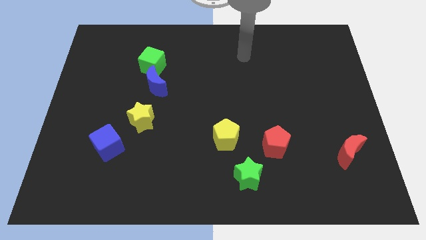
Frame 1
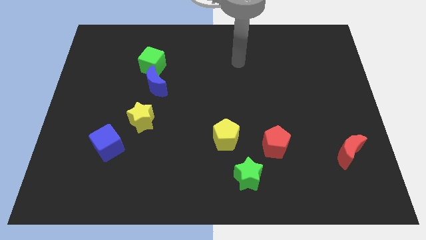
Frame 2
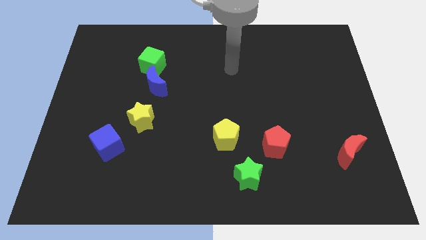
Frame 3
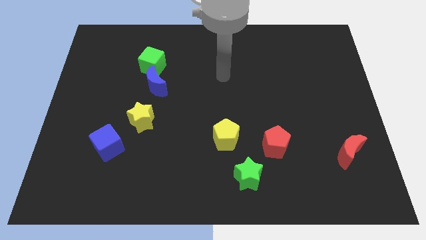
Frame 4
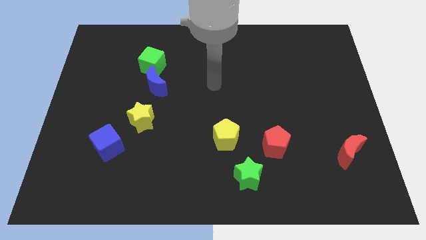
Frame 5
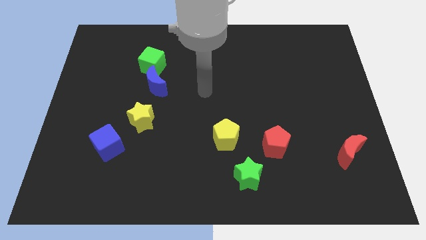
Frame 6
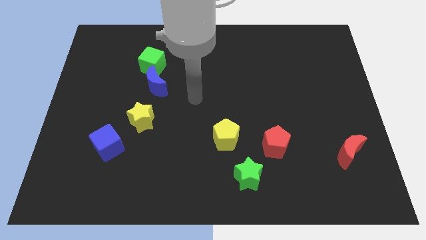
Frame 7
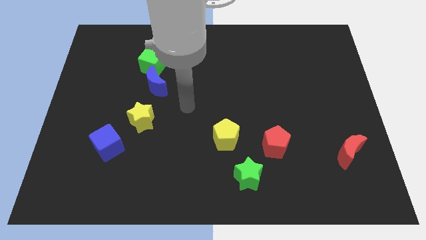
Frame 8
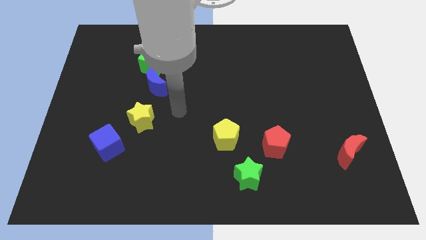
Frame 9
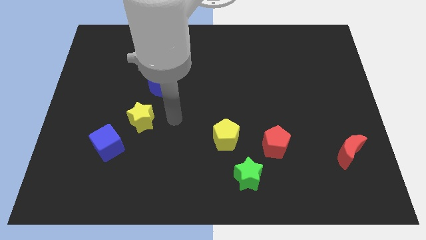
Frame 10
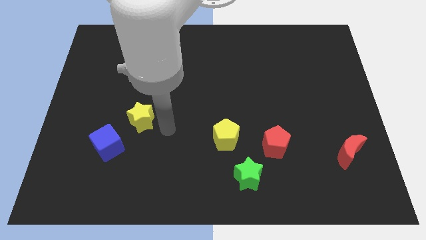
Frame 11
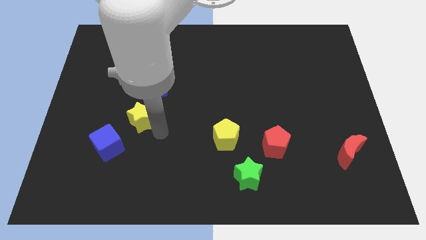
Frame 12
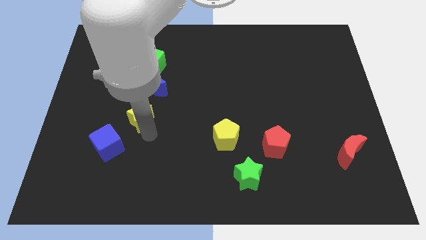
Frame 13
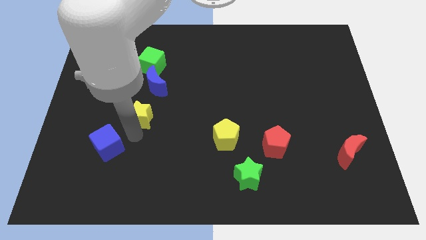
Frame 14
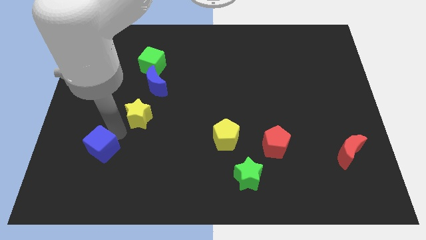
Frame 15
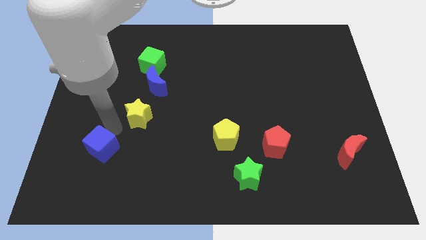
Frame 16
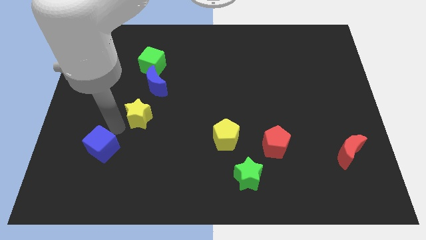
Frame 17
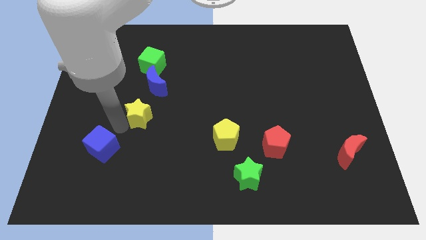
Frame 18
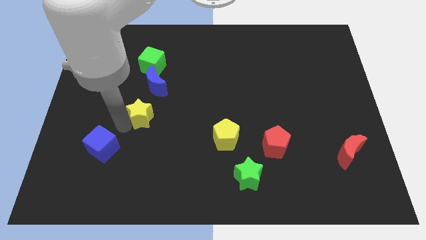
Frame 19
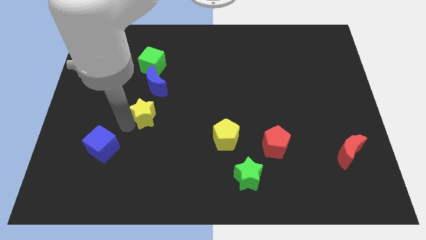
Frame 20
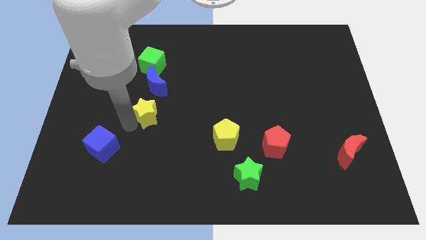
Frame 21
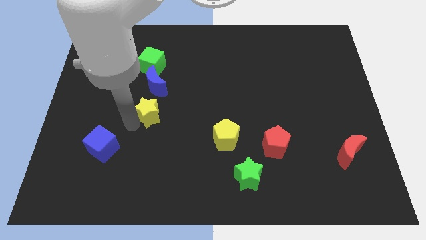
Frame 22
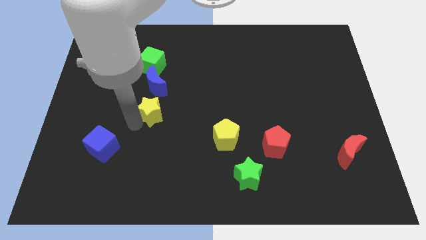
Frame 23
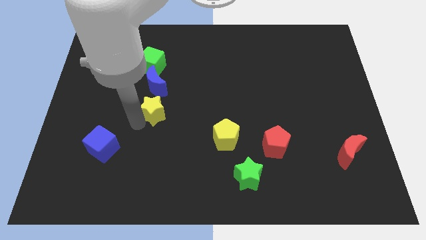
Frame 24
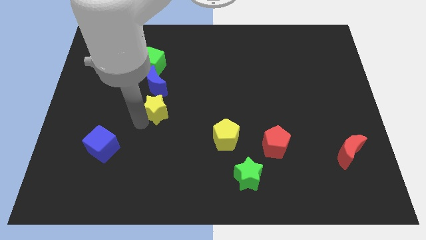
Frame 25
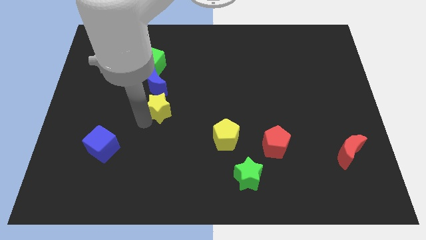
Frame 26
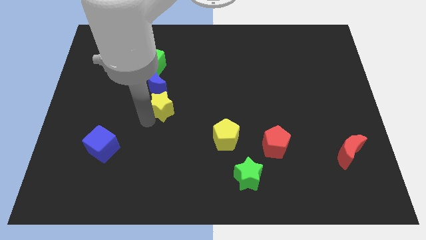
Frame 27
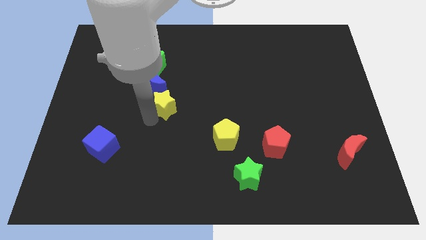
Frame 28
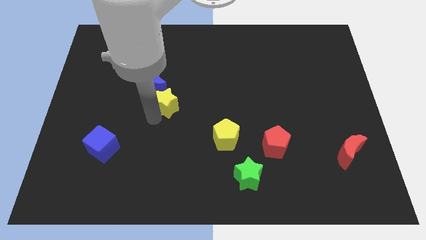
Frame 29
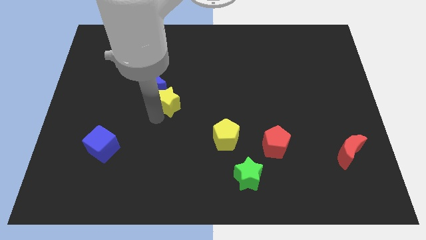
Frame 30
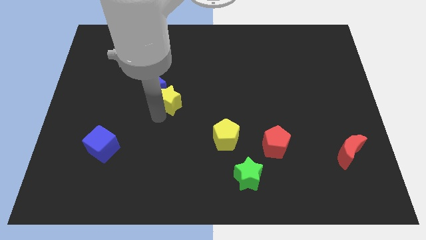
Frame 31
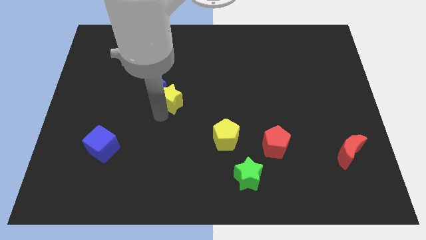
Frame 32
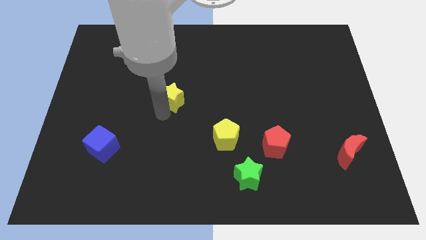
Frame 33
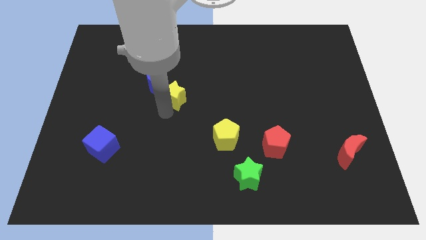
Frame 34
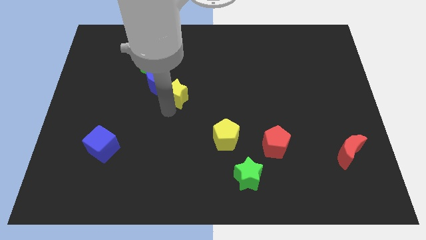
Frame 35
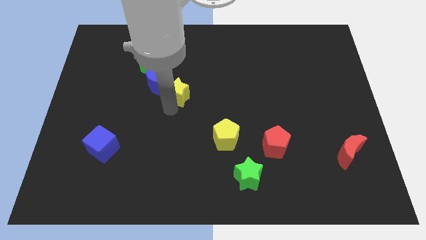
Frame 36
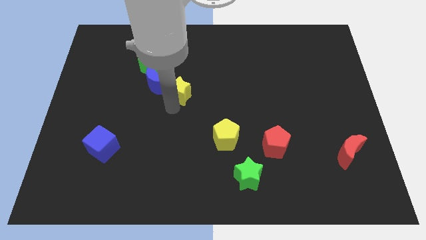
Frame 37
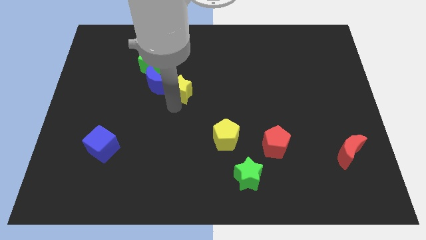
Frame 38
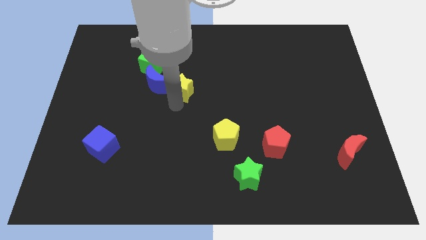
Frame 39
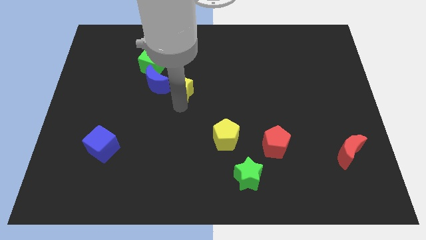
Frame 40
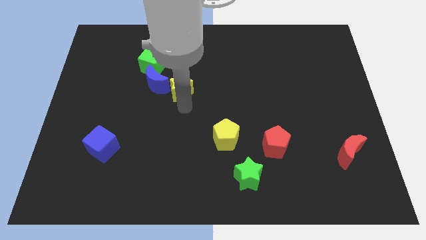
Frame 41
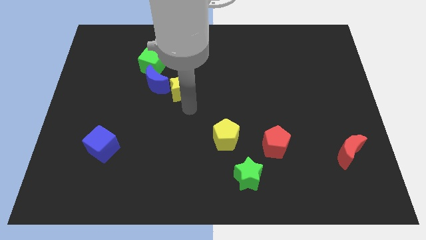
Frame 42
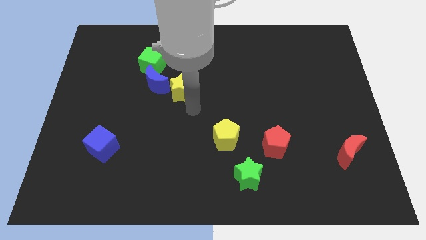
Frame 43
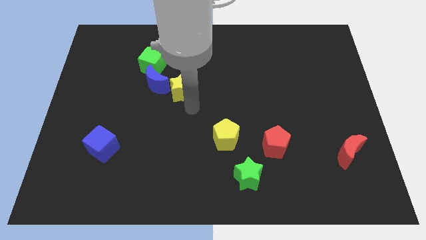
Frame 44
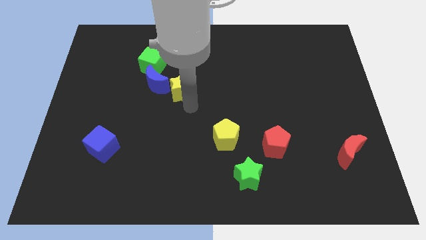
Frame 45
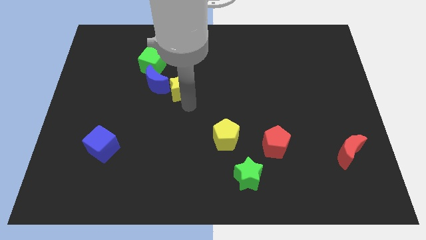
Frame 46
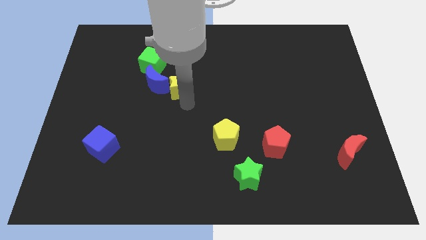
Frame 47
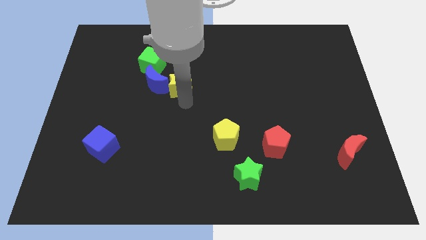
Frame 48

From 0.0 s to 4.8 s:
move the yellow star to the top right of the blue moon

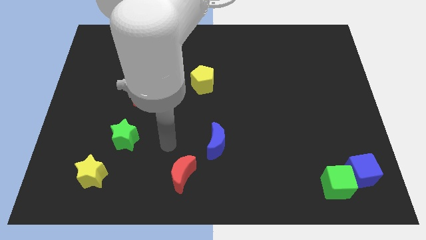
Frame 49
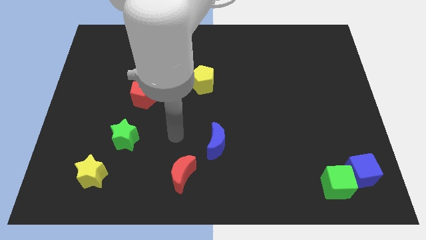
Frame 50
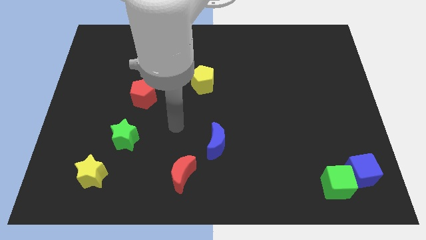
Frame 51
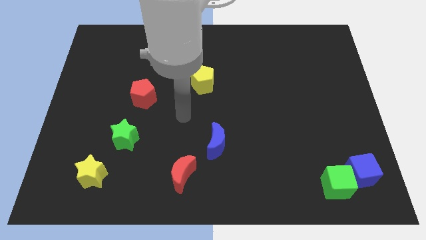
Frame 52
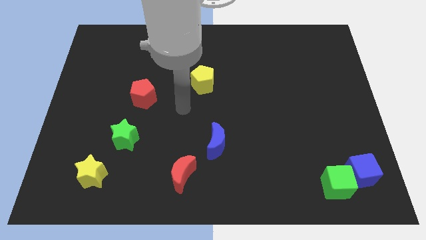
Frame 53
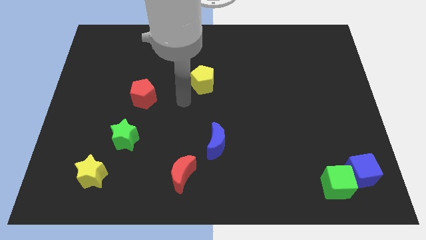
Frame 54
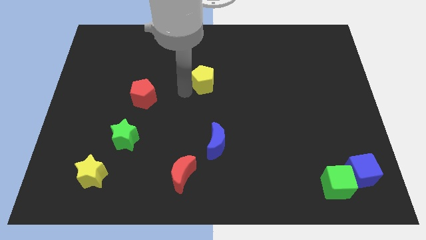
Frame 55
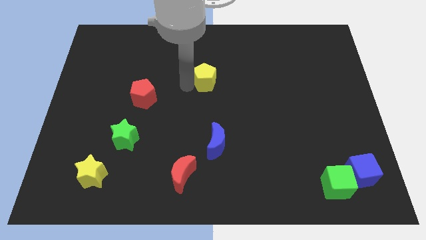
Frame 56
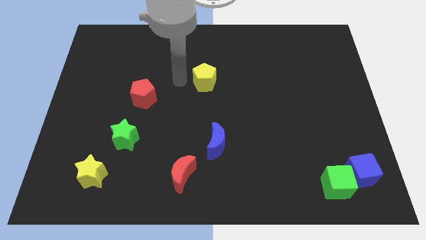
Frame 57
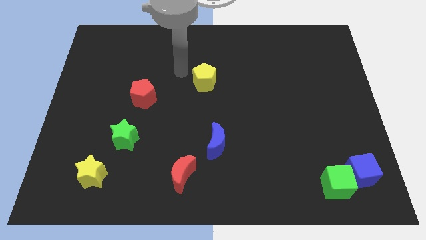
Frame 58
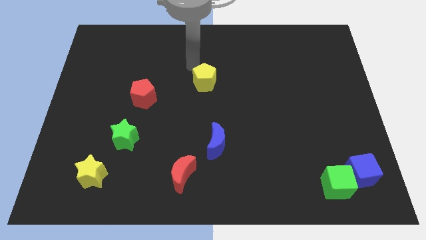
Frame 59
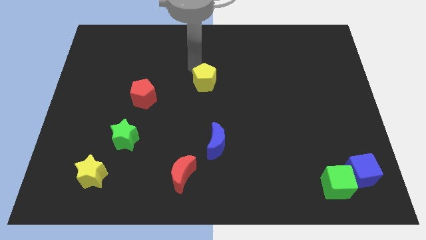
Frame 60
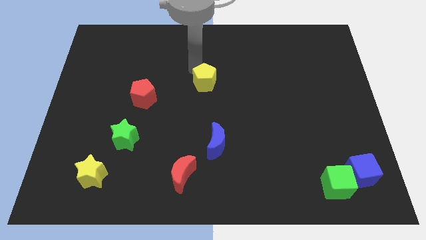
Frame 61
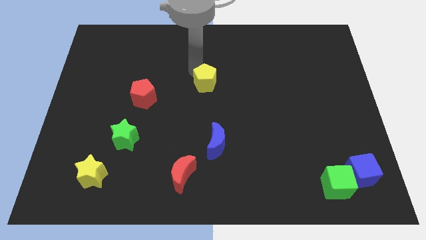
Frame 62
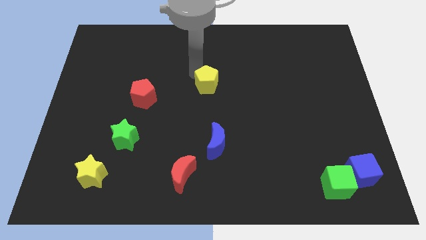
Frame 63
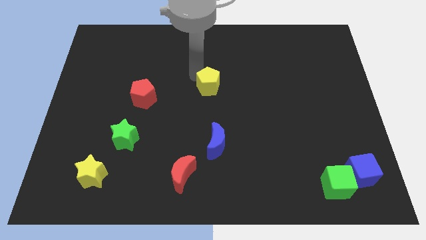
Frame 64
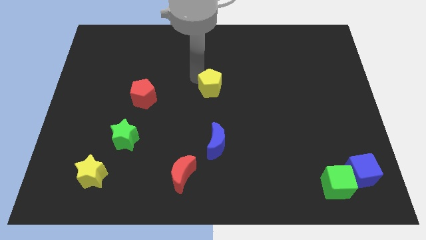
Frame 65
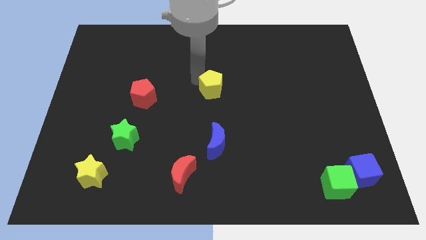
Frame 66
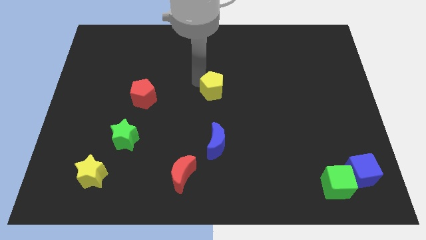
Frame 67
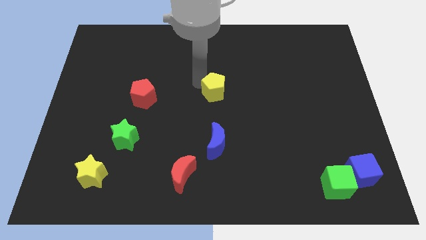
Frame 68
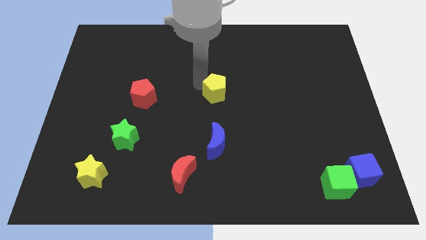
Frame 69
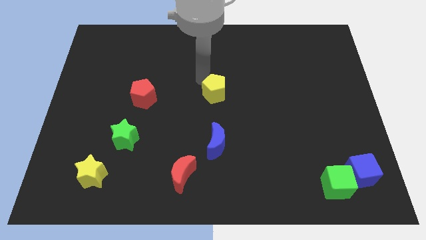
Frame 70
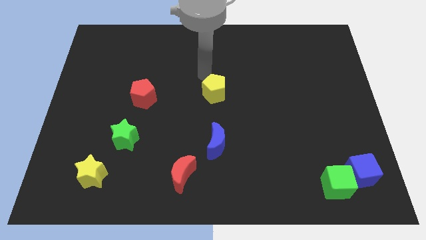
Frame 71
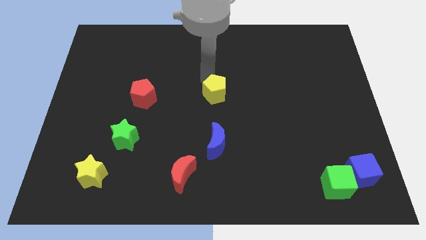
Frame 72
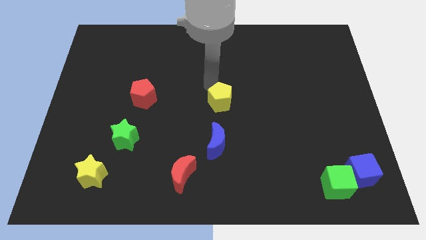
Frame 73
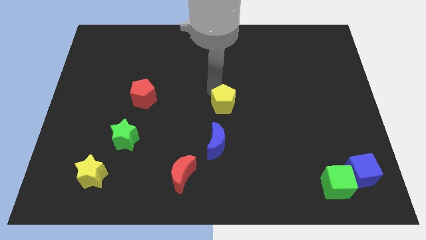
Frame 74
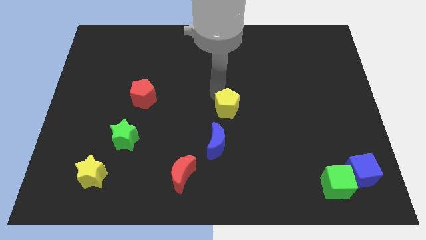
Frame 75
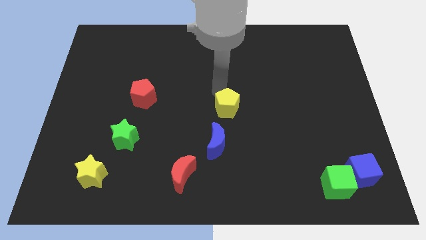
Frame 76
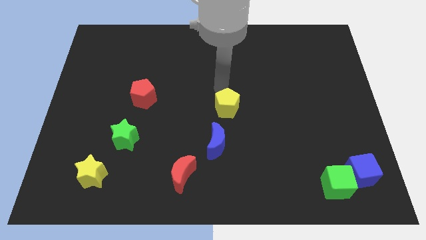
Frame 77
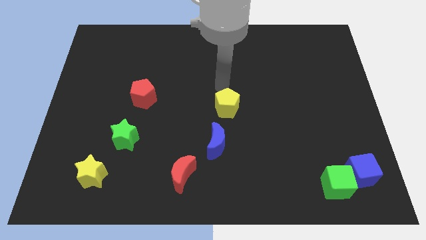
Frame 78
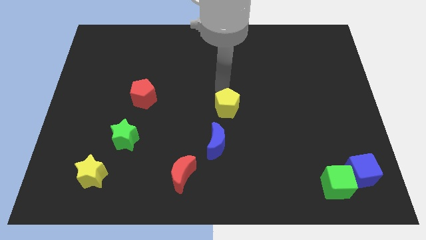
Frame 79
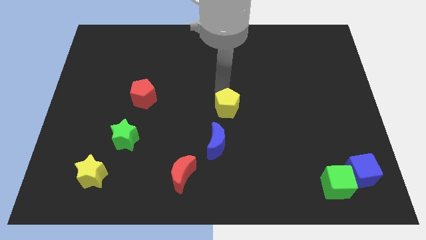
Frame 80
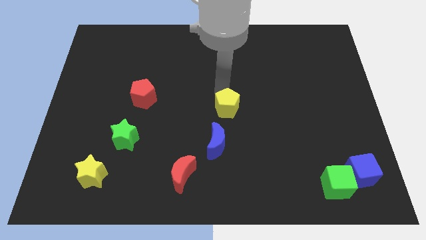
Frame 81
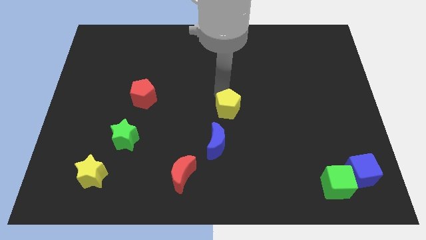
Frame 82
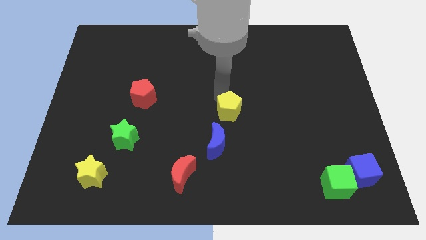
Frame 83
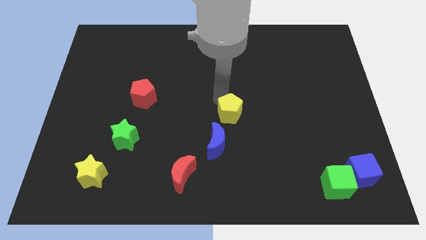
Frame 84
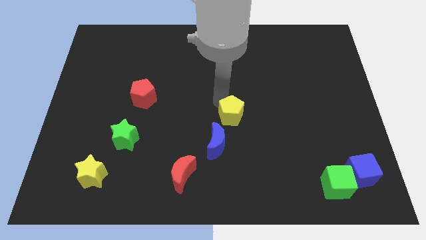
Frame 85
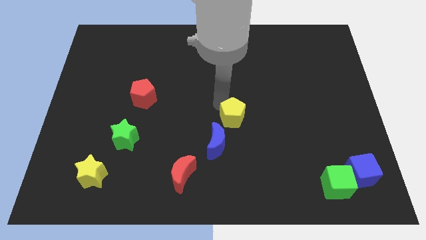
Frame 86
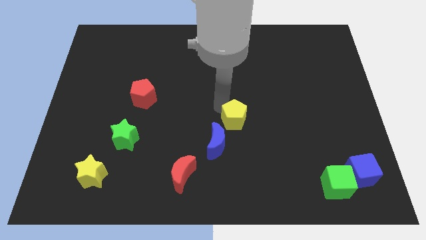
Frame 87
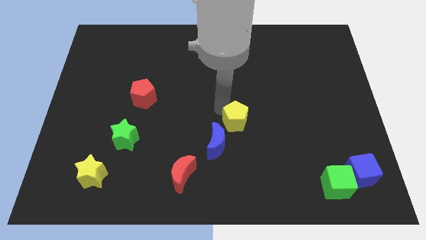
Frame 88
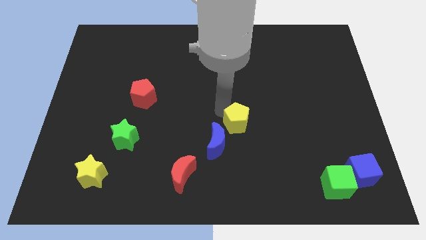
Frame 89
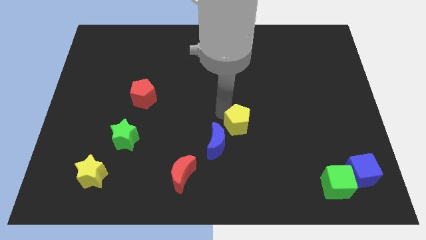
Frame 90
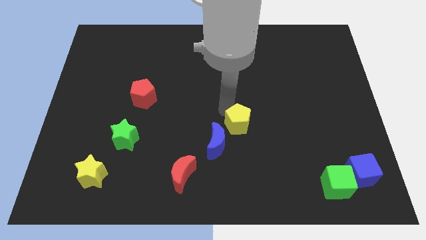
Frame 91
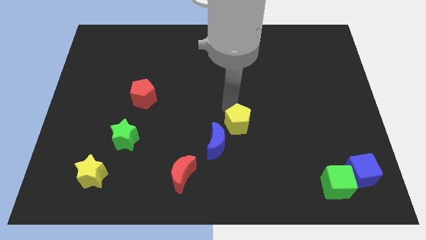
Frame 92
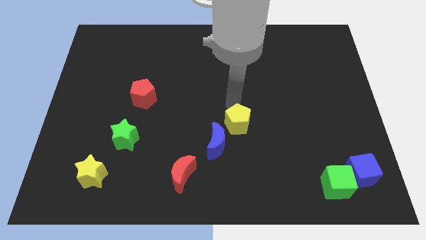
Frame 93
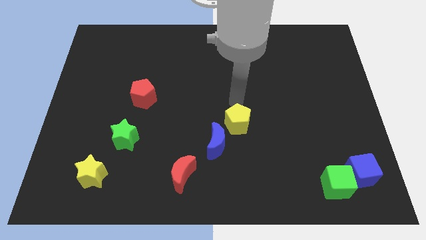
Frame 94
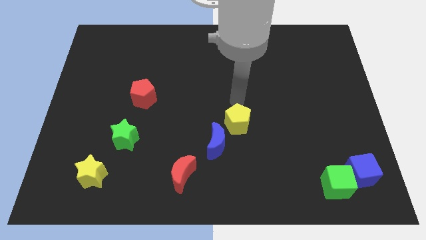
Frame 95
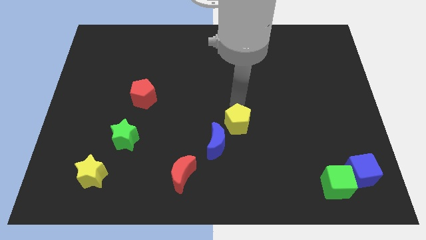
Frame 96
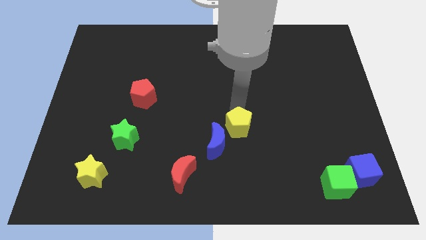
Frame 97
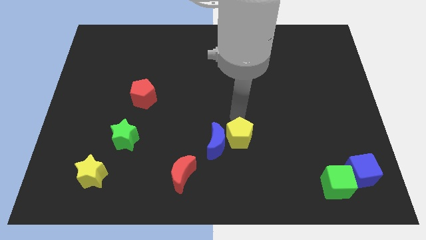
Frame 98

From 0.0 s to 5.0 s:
slide the yellow pentagon to the bottom right of the blue moon
